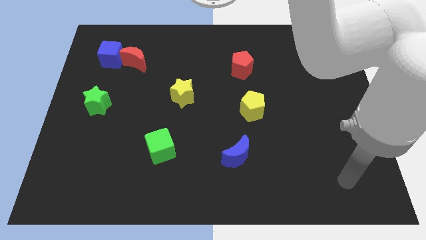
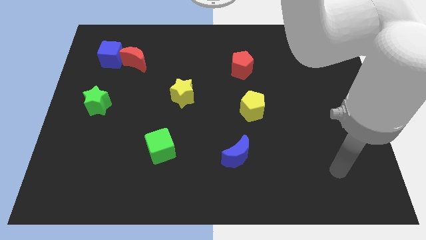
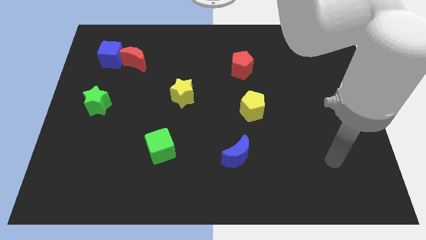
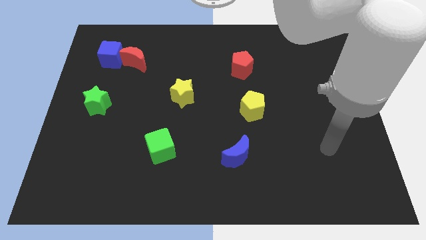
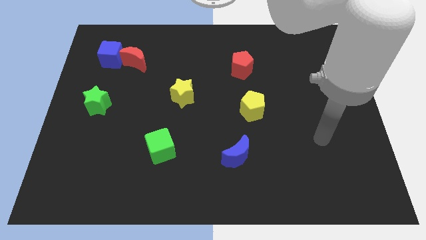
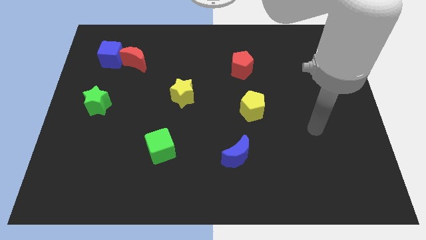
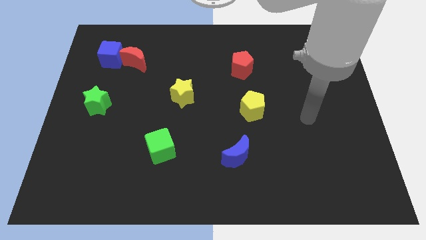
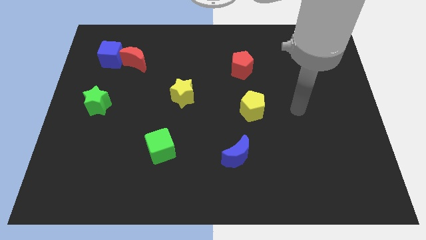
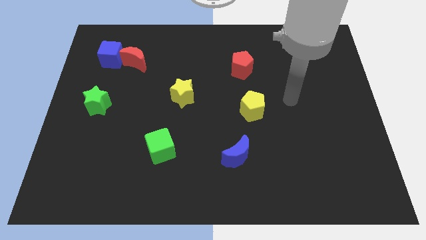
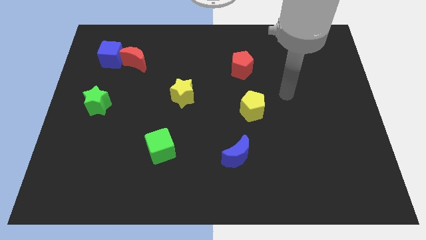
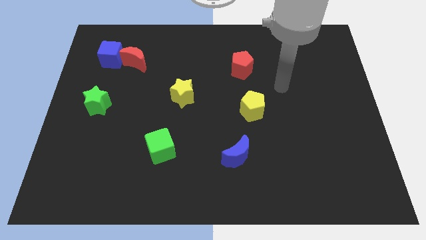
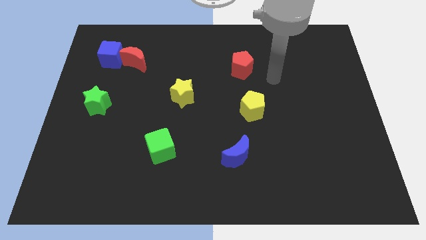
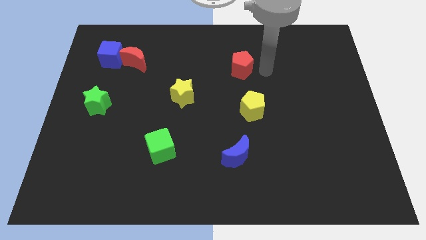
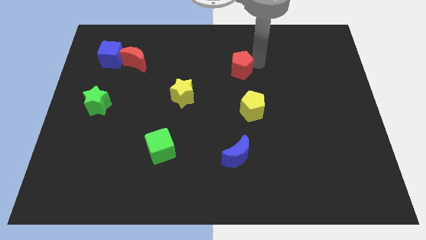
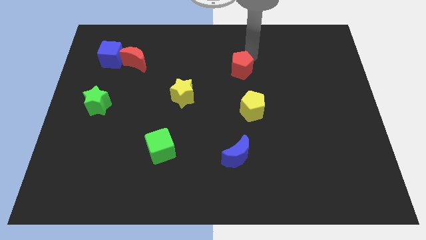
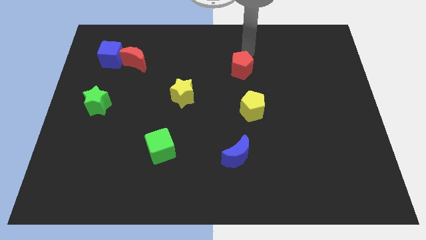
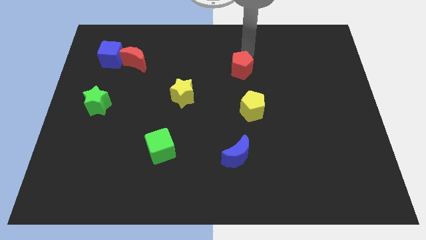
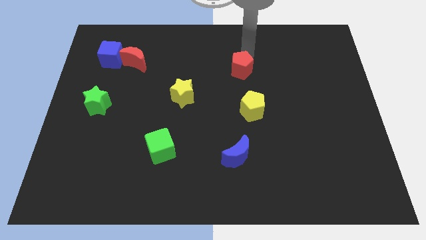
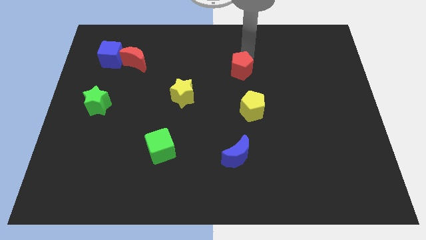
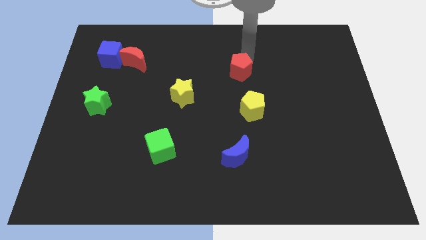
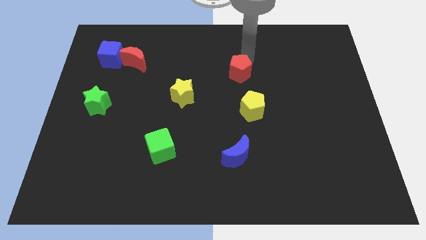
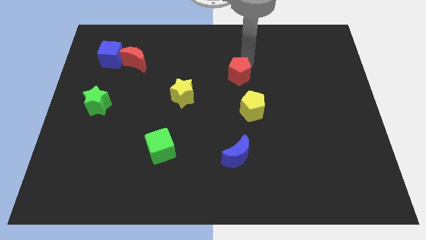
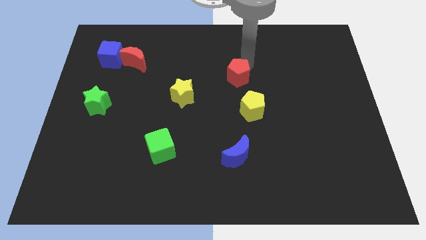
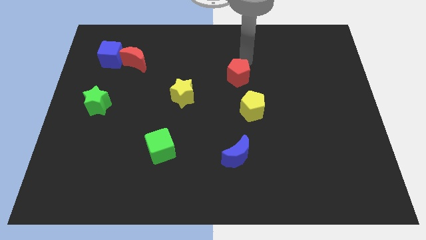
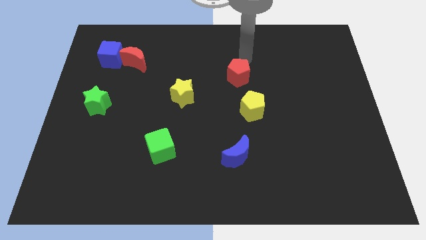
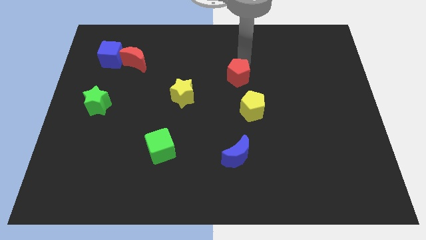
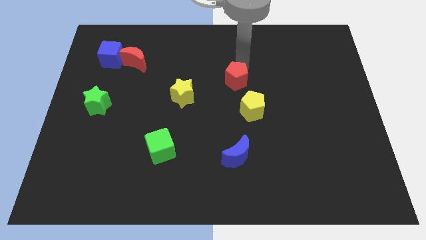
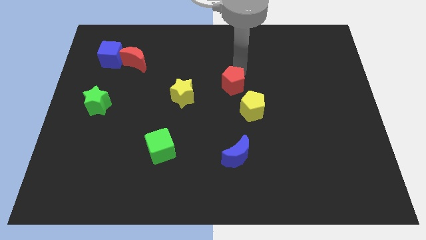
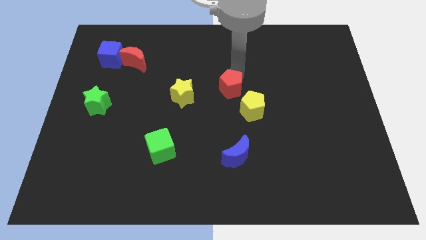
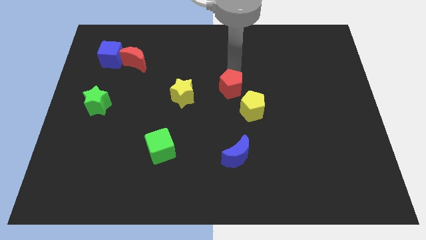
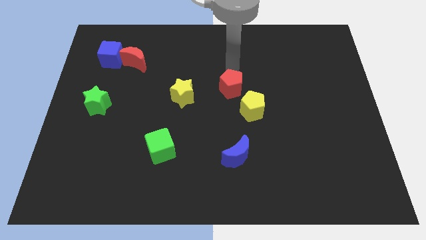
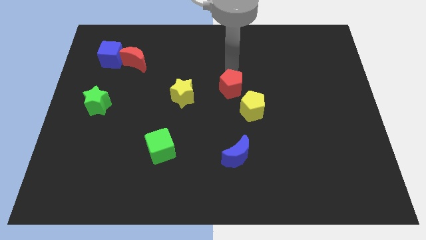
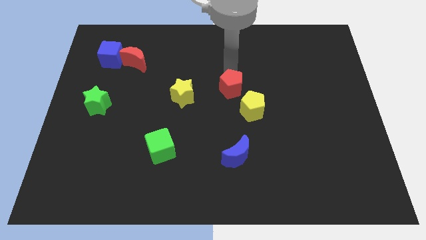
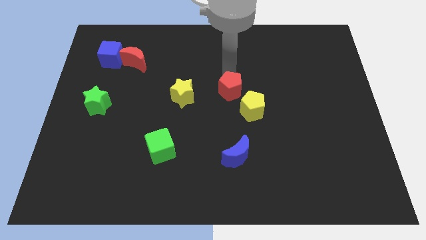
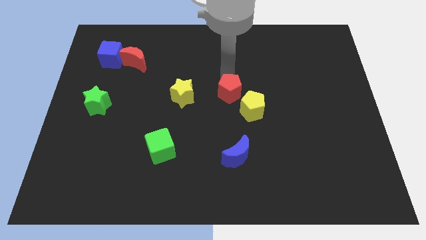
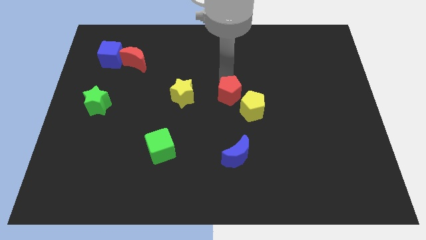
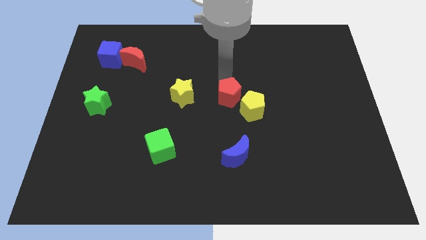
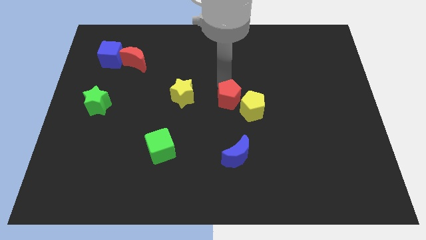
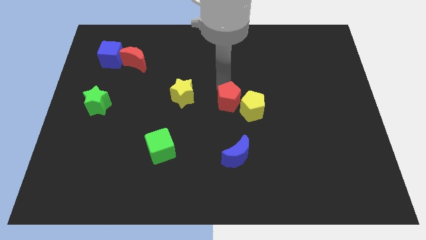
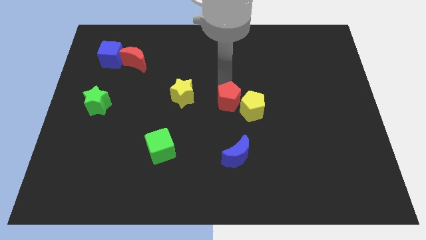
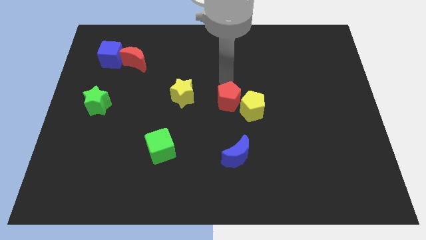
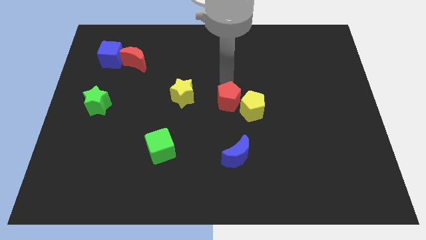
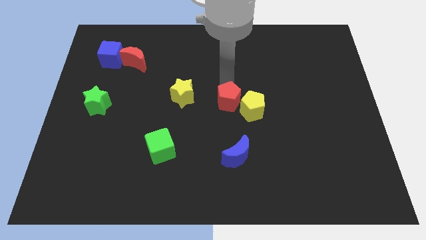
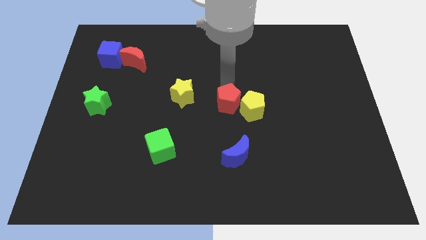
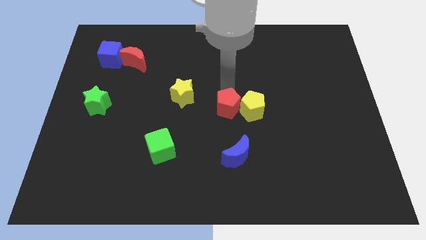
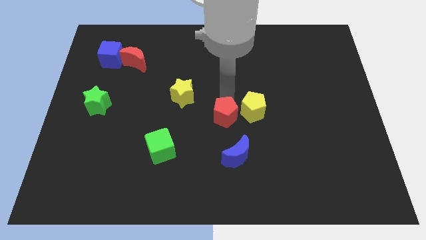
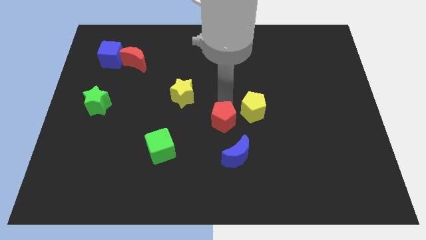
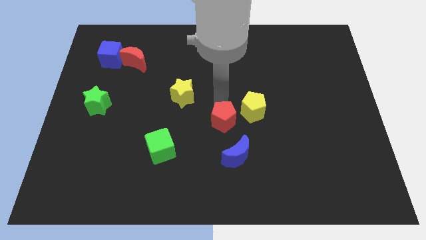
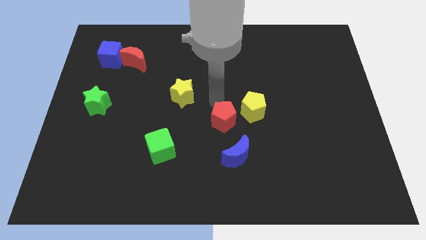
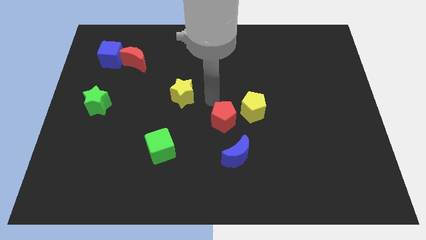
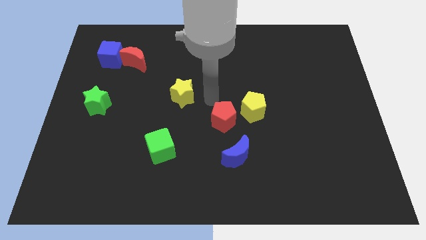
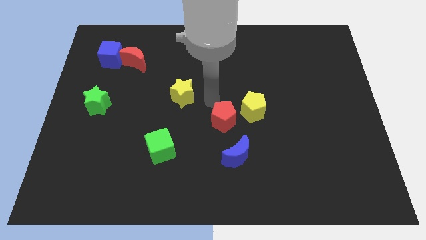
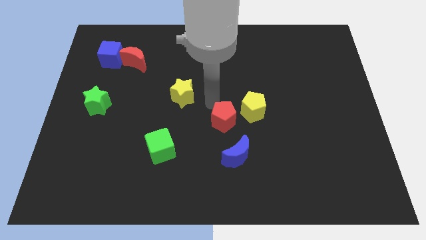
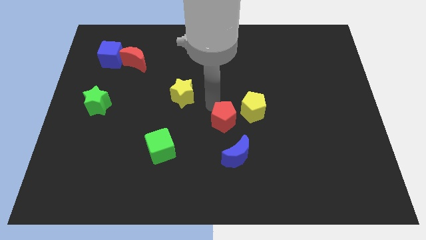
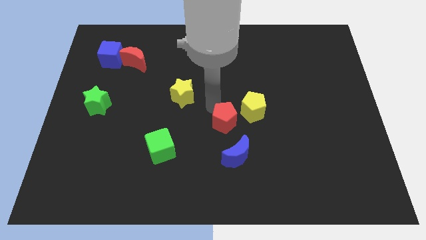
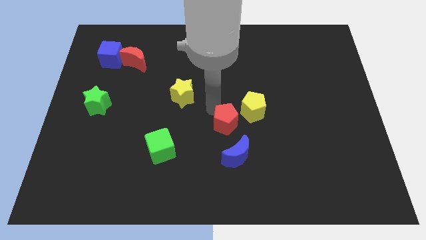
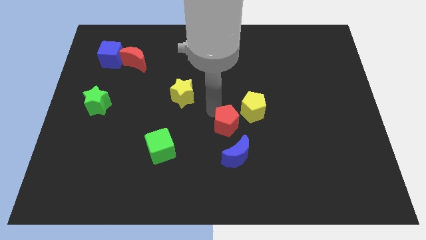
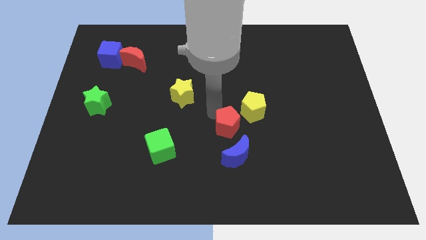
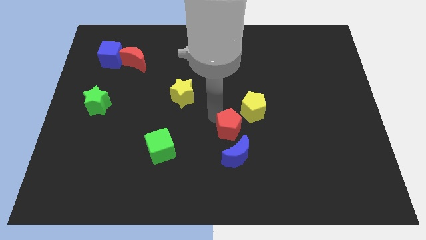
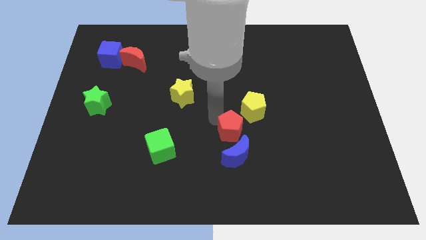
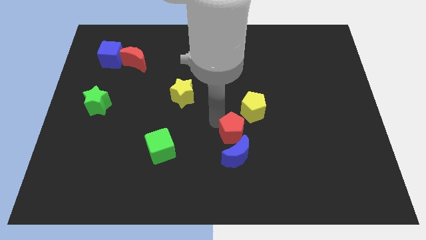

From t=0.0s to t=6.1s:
move the red pentagon close to the blue moon

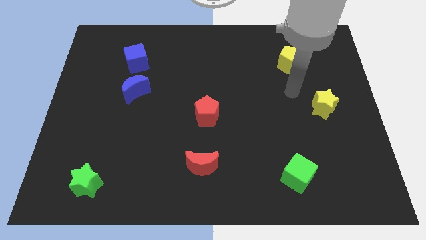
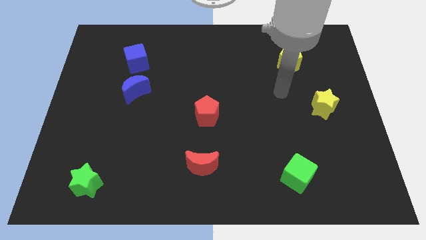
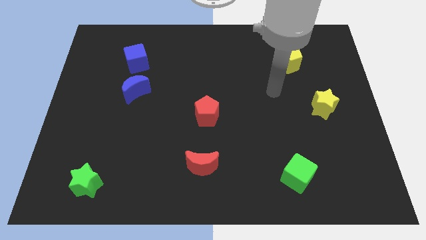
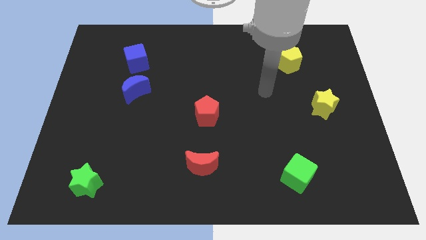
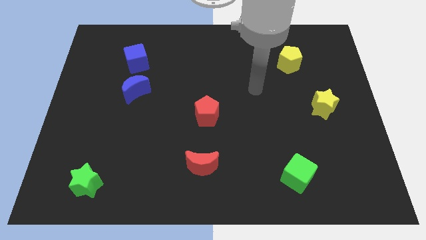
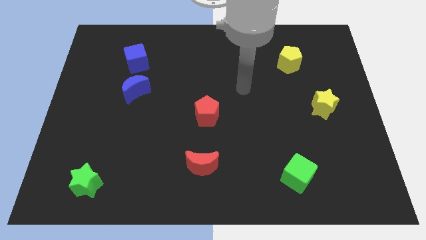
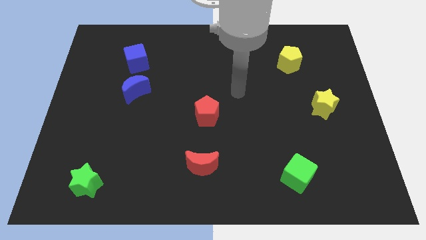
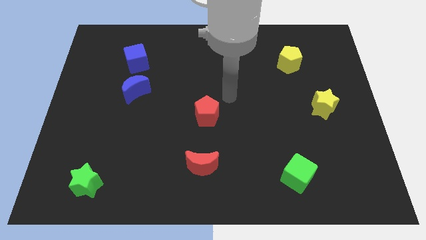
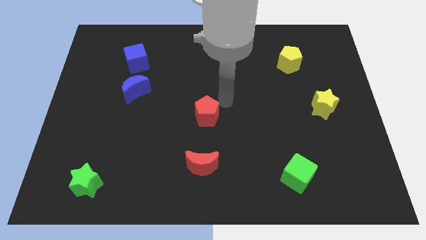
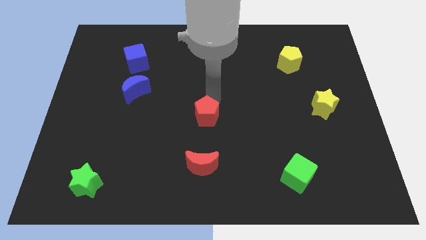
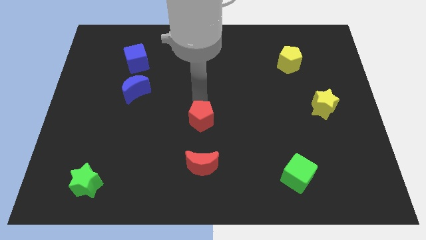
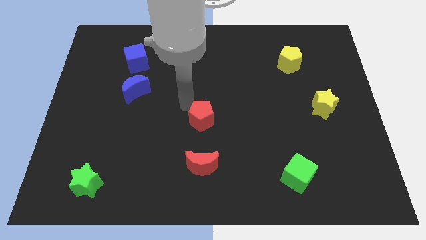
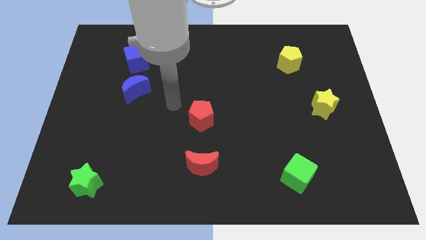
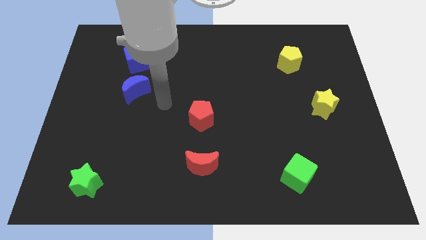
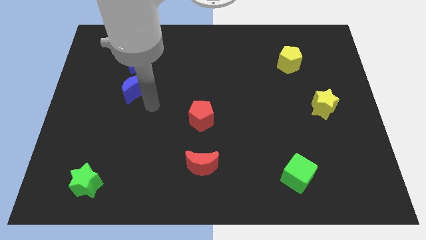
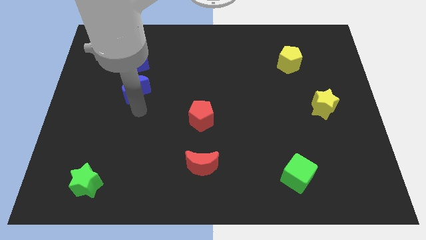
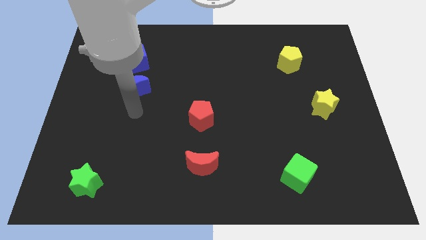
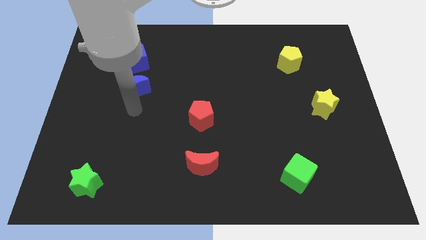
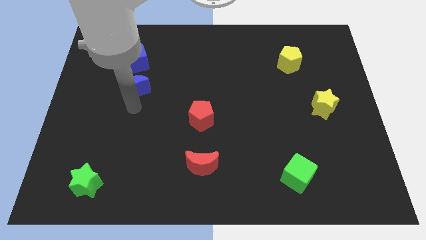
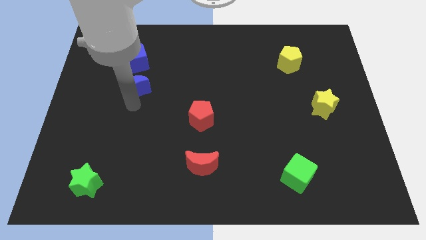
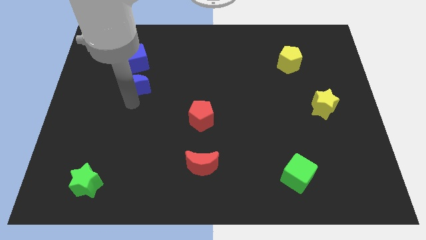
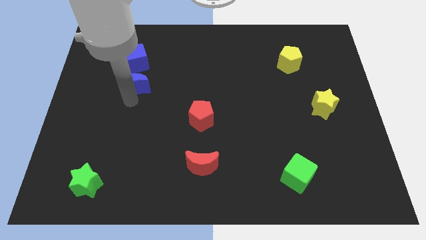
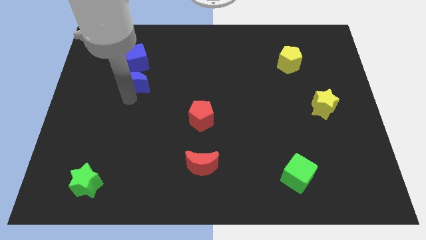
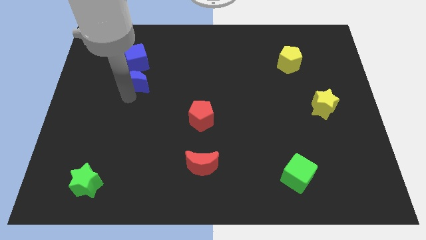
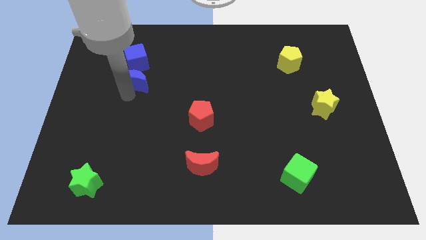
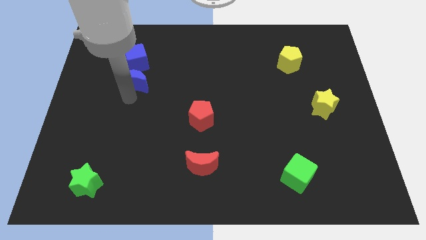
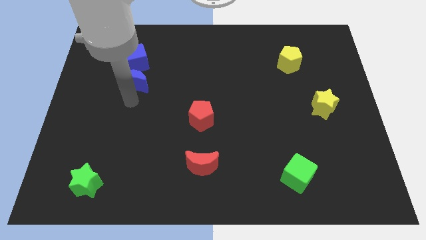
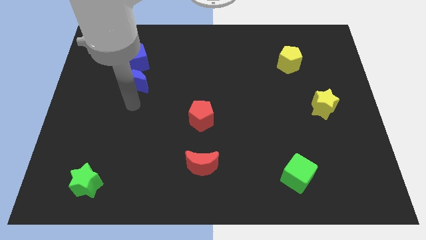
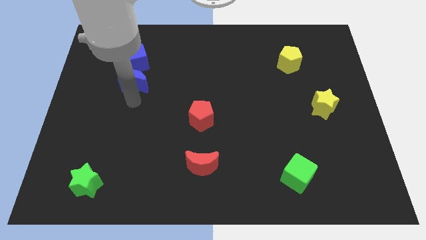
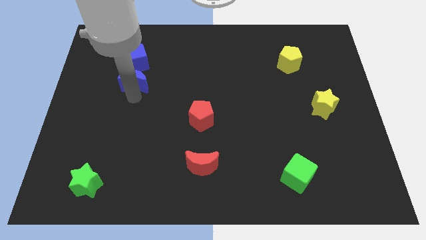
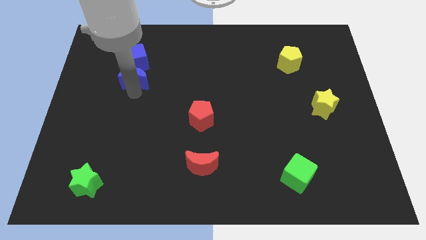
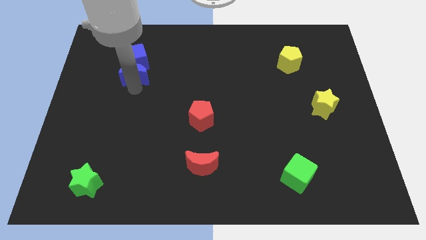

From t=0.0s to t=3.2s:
slide the blue moon close to the blue cube
